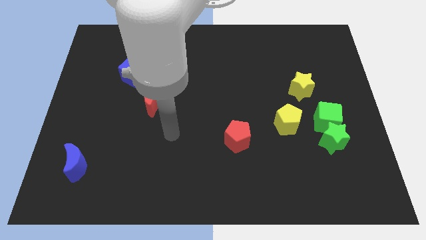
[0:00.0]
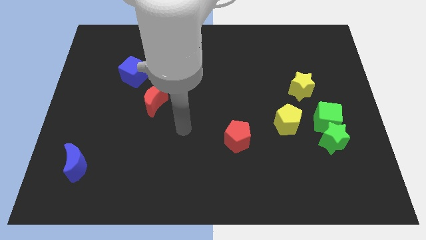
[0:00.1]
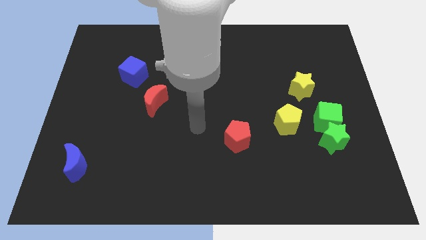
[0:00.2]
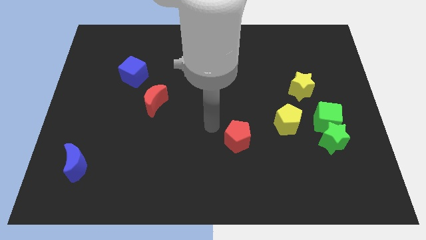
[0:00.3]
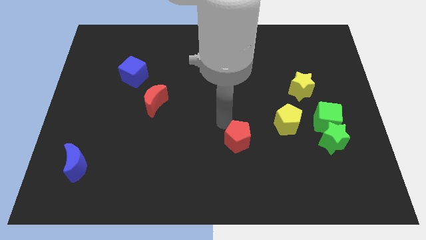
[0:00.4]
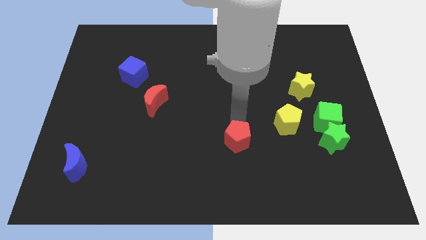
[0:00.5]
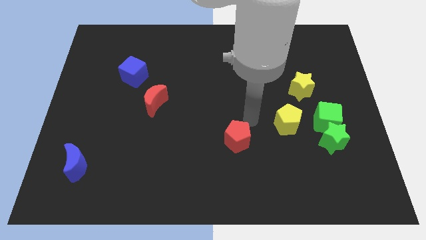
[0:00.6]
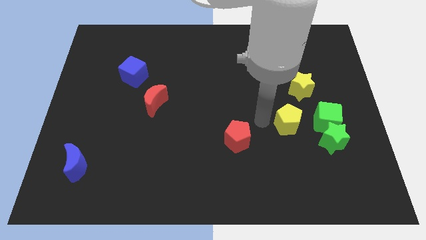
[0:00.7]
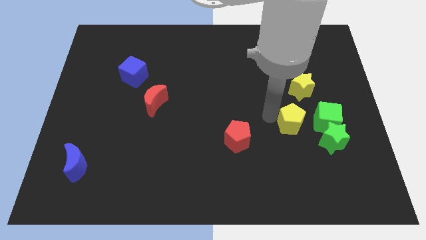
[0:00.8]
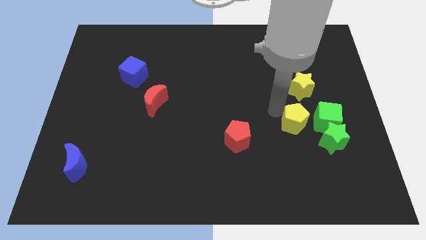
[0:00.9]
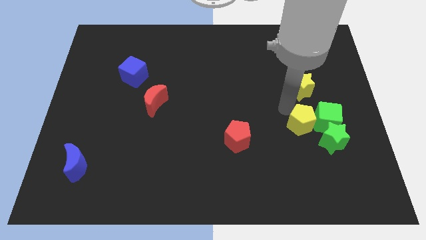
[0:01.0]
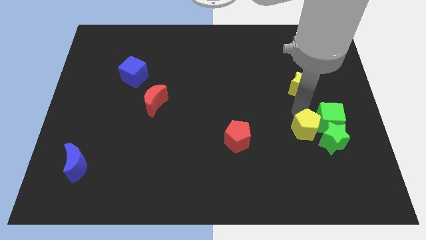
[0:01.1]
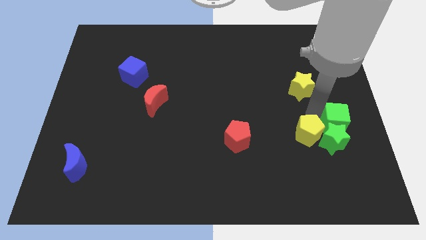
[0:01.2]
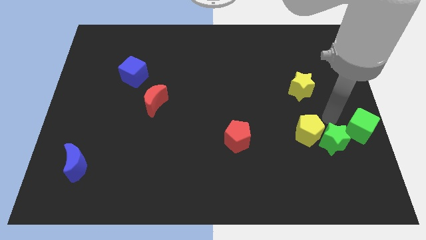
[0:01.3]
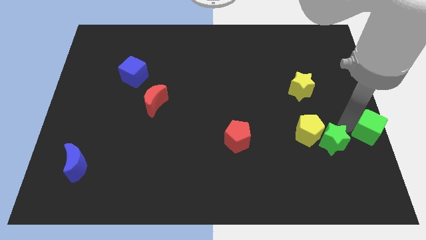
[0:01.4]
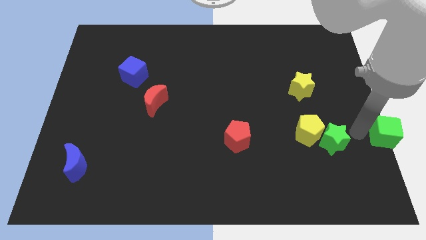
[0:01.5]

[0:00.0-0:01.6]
pull the green star apart from the green cube

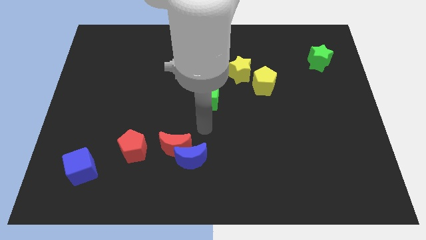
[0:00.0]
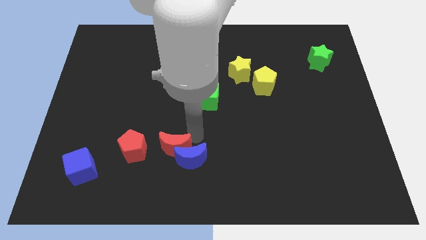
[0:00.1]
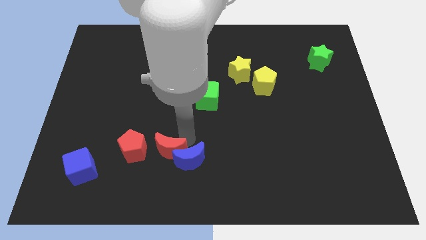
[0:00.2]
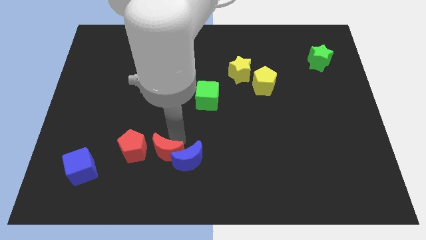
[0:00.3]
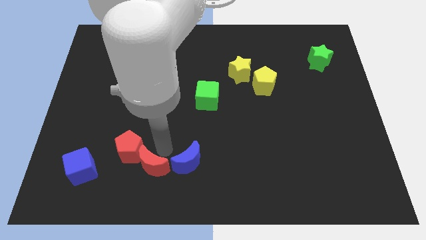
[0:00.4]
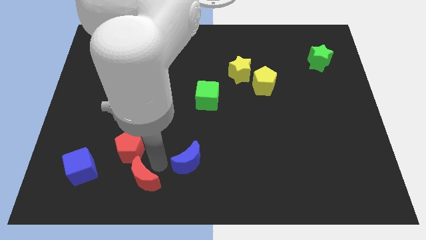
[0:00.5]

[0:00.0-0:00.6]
pull the blue moon apart from the red moon

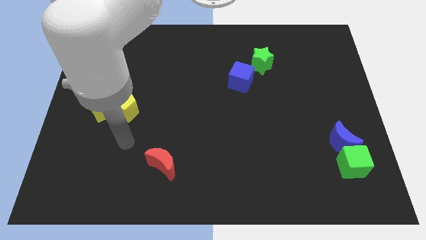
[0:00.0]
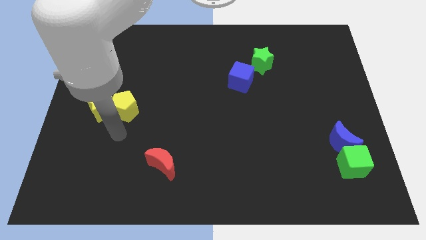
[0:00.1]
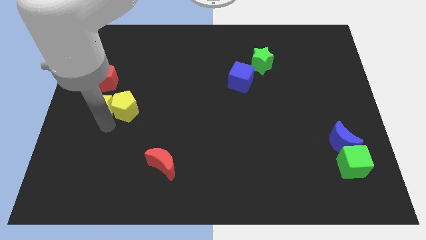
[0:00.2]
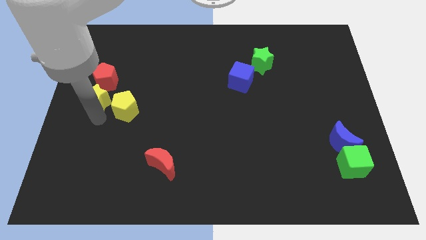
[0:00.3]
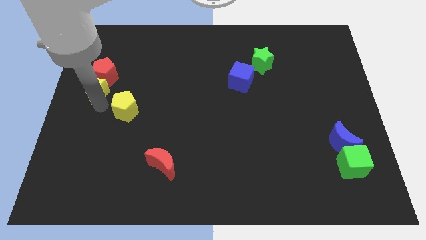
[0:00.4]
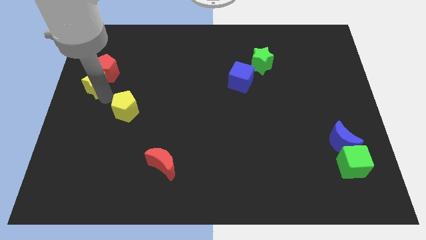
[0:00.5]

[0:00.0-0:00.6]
separate the yellow pentagon from the yellow star

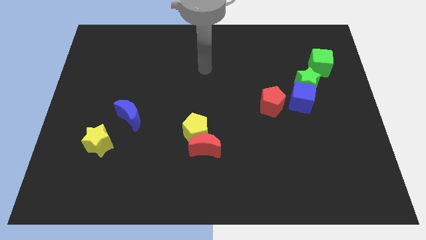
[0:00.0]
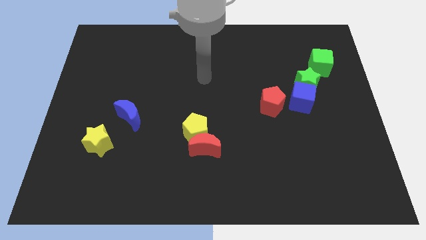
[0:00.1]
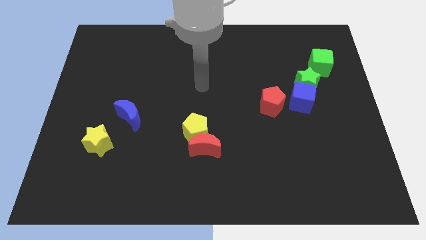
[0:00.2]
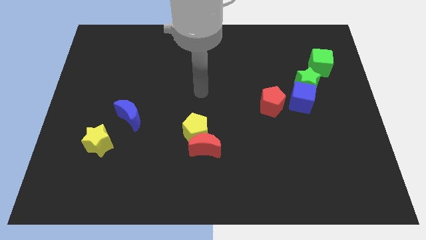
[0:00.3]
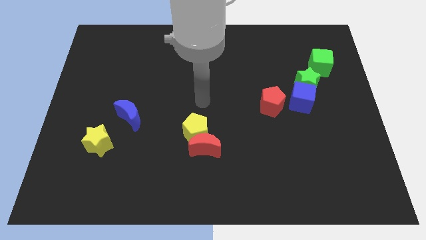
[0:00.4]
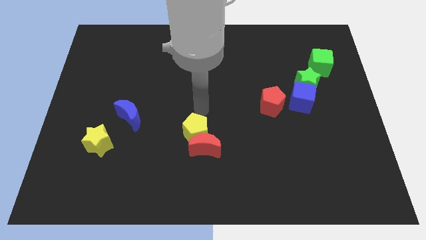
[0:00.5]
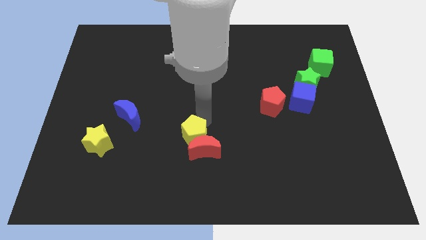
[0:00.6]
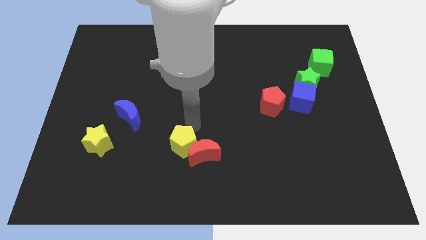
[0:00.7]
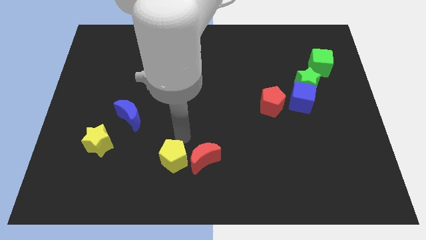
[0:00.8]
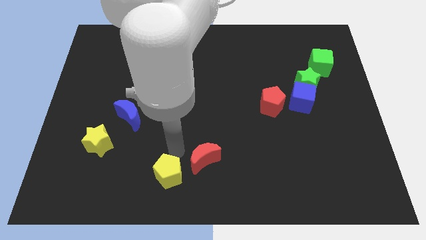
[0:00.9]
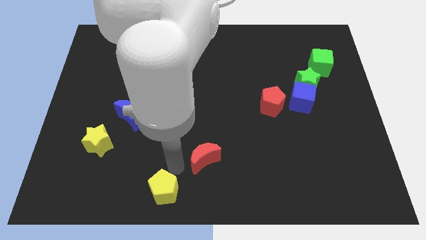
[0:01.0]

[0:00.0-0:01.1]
pull the red moon apart from the yellow pentagon

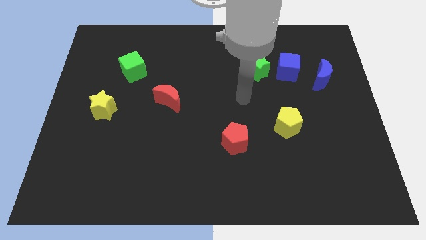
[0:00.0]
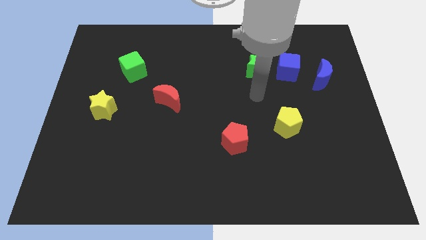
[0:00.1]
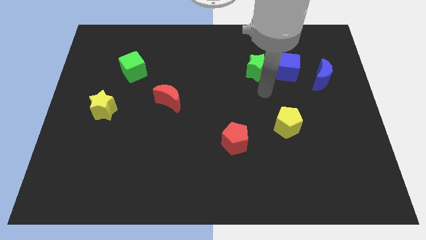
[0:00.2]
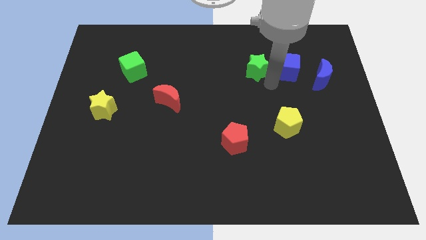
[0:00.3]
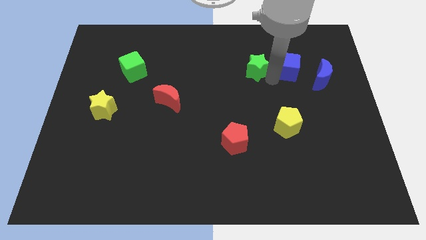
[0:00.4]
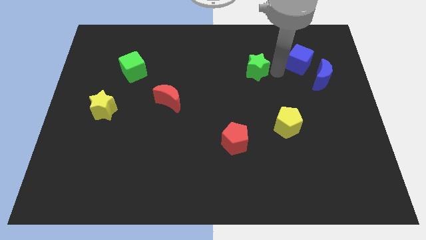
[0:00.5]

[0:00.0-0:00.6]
separate the green star from the blue cube

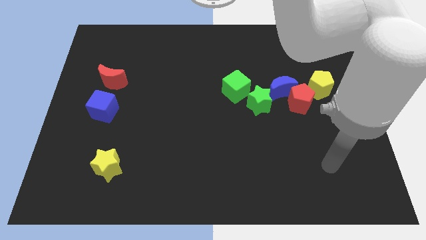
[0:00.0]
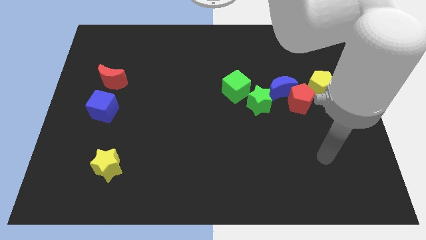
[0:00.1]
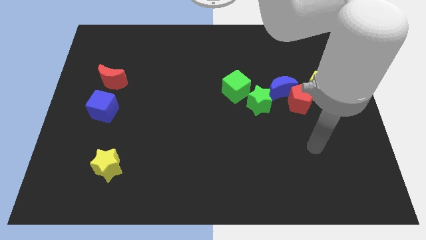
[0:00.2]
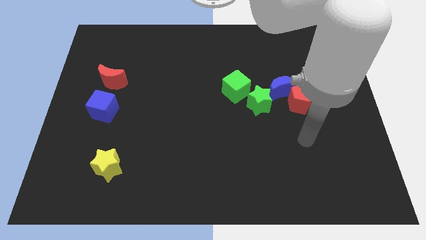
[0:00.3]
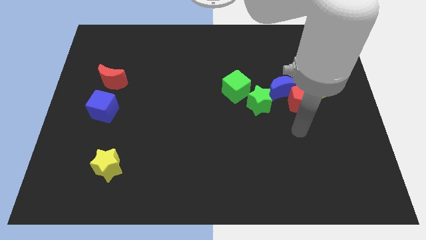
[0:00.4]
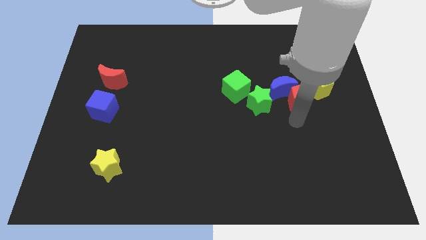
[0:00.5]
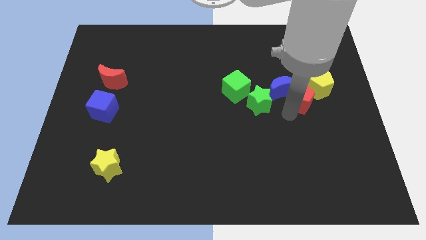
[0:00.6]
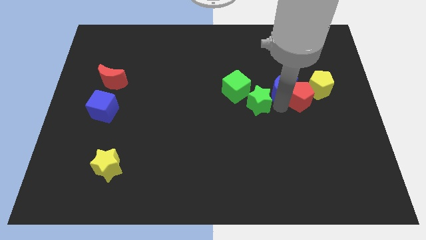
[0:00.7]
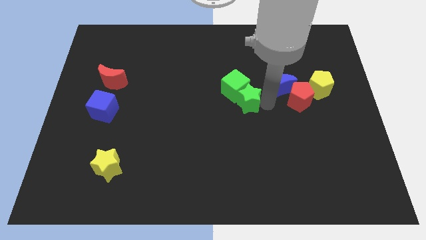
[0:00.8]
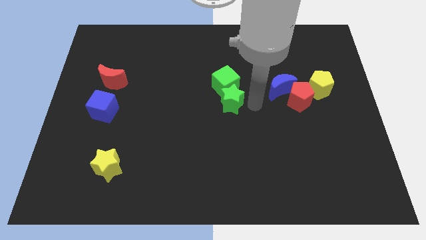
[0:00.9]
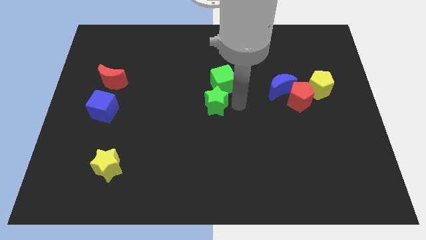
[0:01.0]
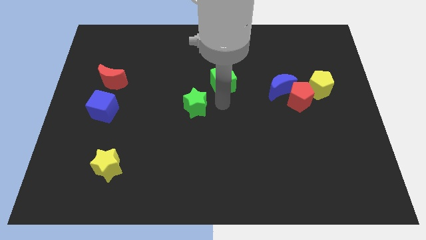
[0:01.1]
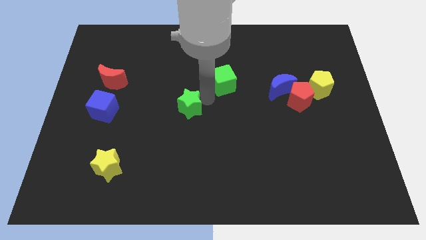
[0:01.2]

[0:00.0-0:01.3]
separate the green cube from the green star

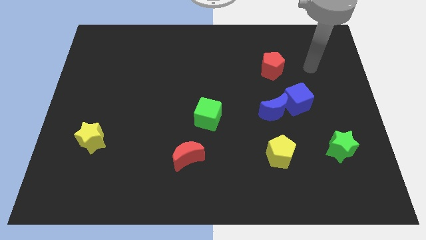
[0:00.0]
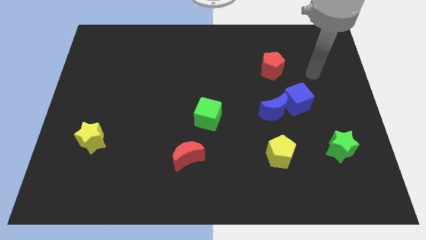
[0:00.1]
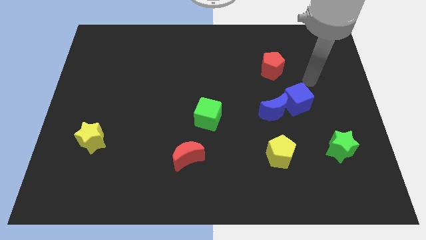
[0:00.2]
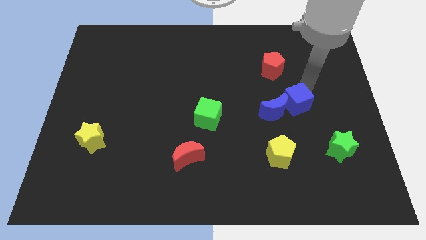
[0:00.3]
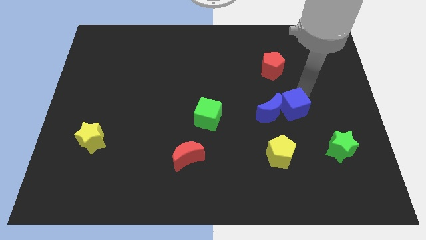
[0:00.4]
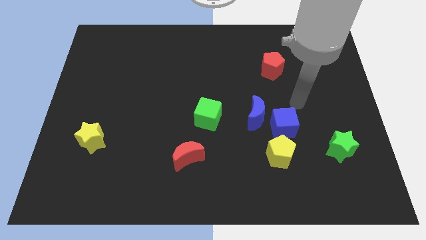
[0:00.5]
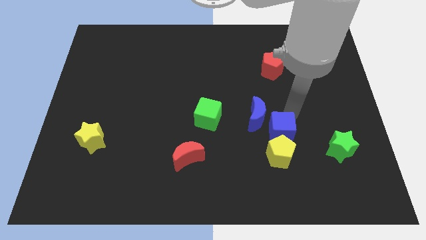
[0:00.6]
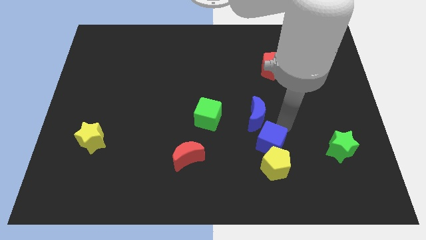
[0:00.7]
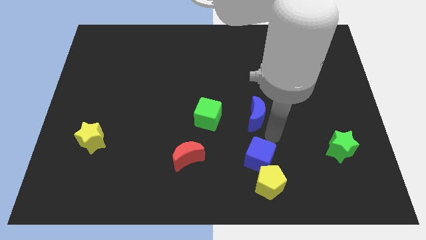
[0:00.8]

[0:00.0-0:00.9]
separate the blue moon from the blue cube

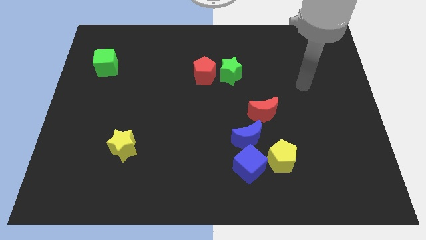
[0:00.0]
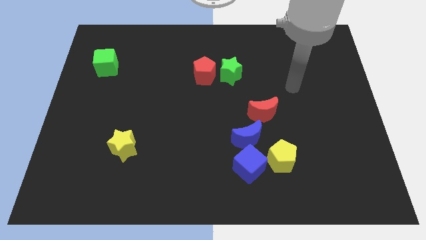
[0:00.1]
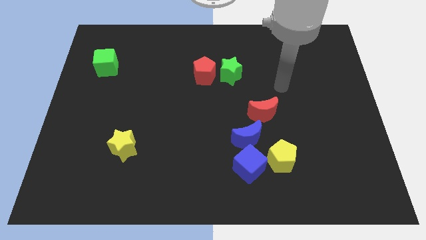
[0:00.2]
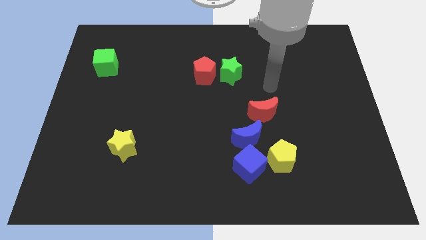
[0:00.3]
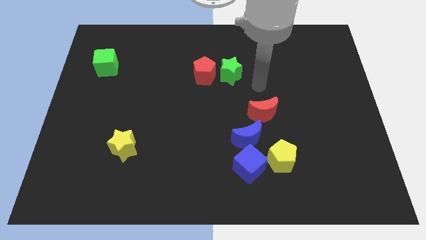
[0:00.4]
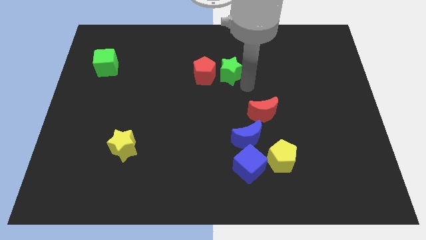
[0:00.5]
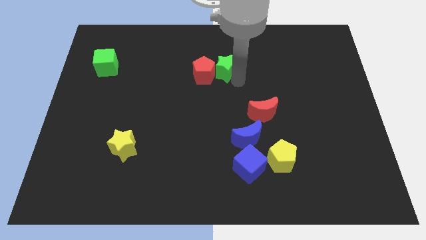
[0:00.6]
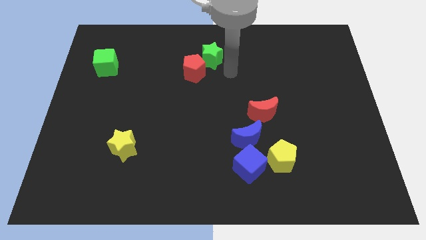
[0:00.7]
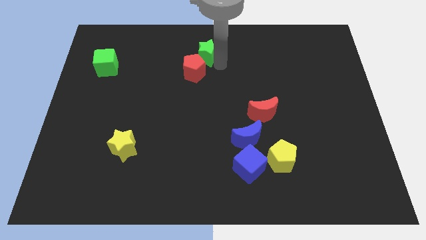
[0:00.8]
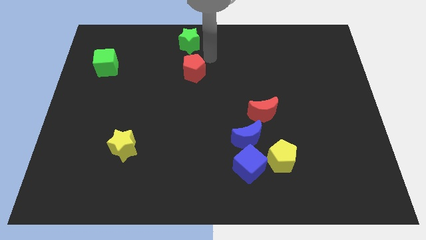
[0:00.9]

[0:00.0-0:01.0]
move the red pentagon away from the green star

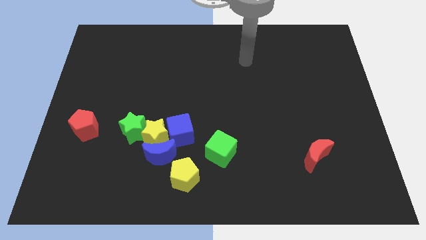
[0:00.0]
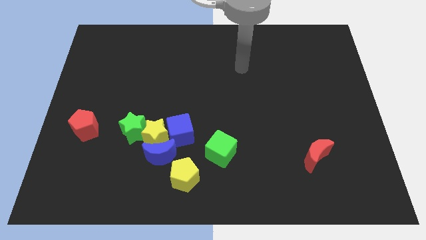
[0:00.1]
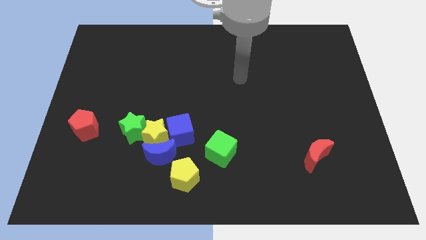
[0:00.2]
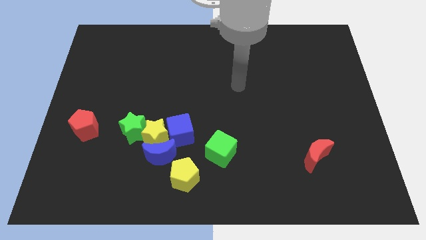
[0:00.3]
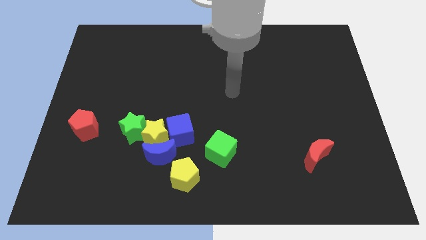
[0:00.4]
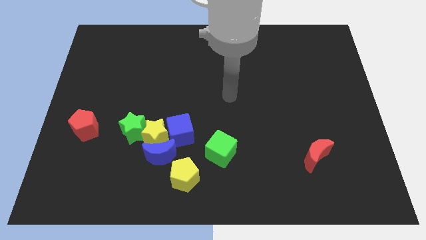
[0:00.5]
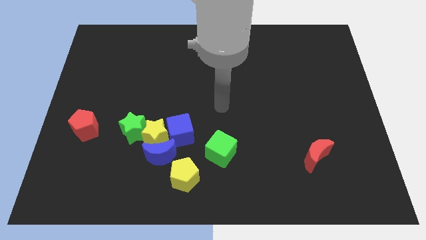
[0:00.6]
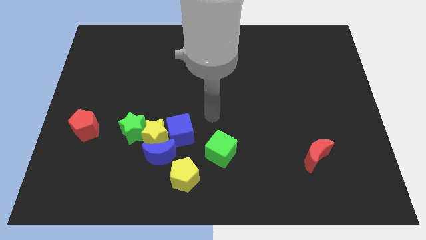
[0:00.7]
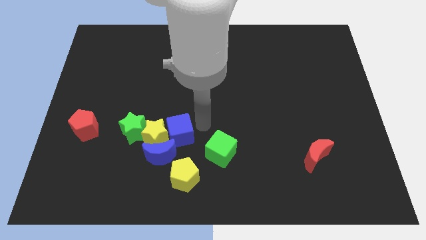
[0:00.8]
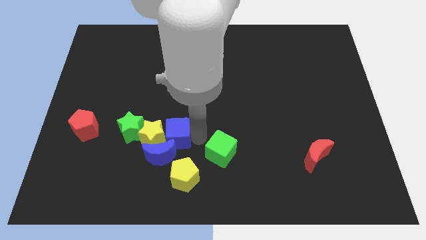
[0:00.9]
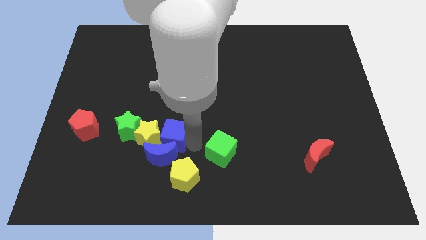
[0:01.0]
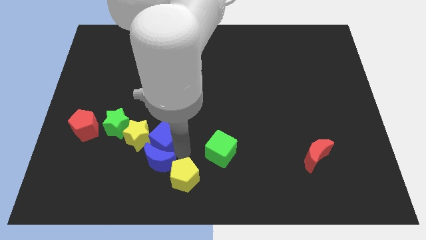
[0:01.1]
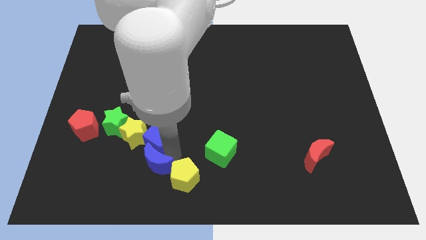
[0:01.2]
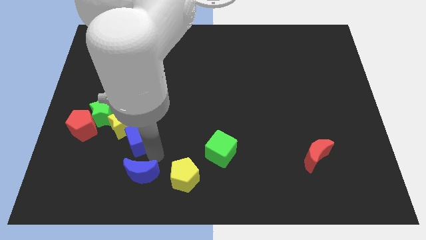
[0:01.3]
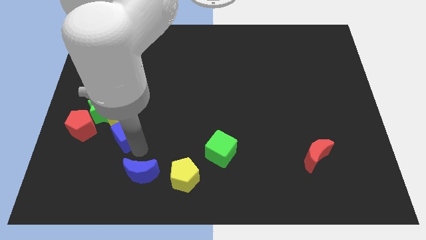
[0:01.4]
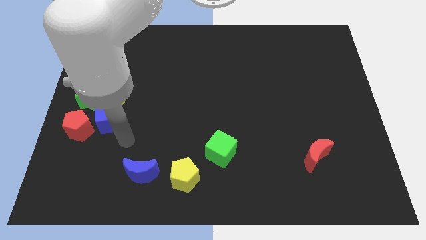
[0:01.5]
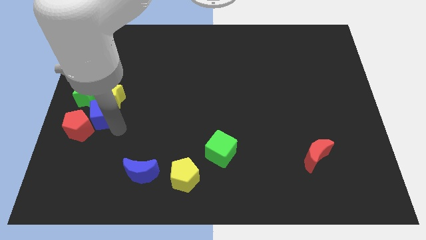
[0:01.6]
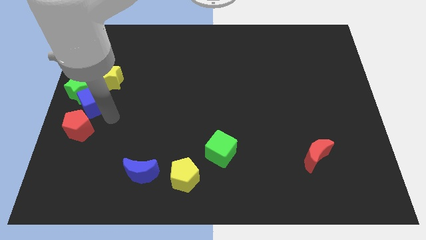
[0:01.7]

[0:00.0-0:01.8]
move the yellow star away from the blue moon, blue cube, and green star
